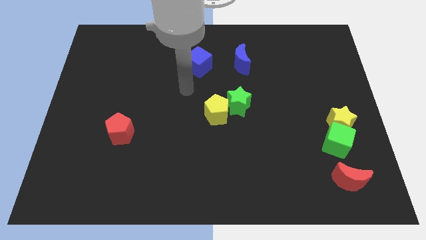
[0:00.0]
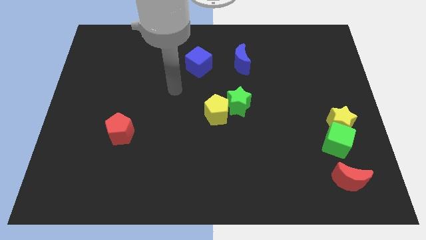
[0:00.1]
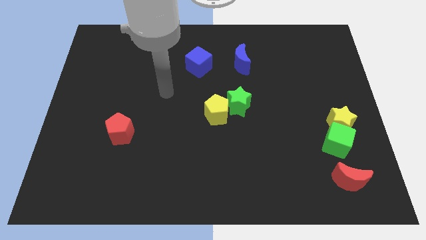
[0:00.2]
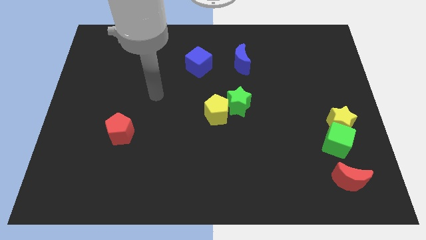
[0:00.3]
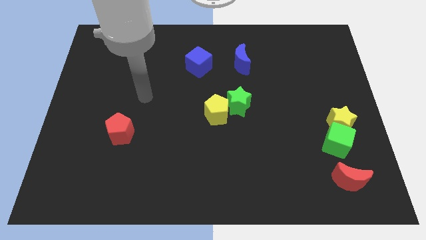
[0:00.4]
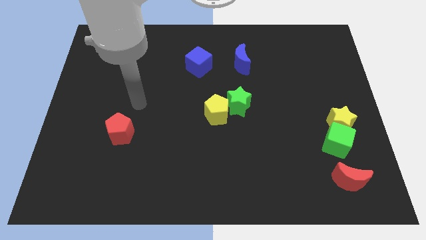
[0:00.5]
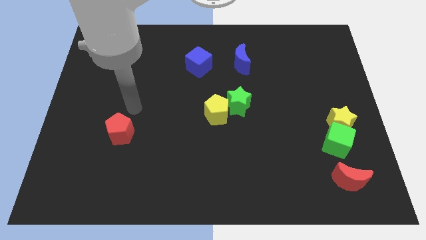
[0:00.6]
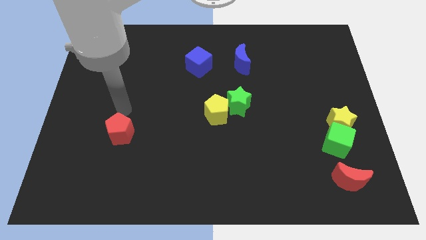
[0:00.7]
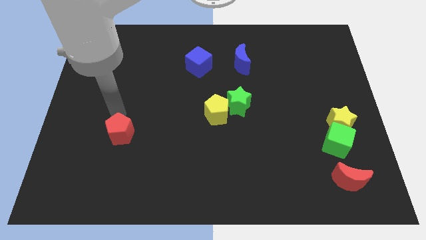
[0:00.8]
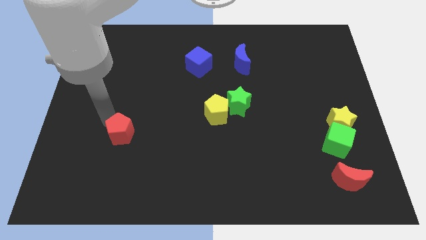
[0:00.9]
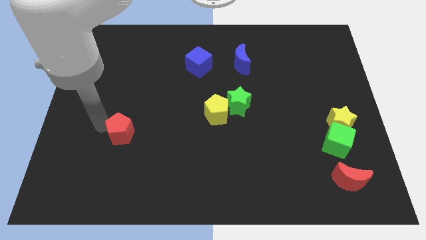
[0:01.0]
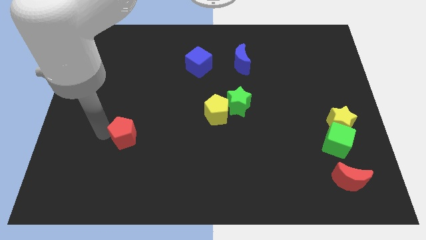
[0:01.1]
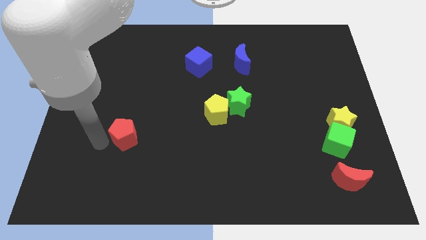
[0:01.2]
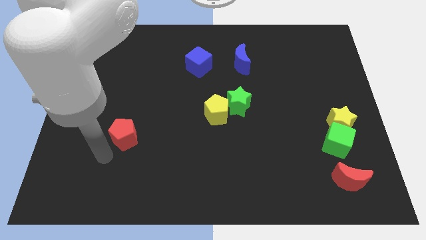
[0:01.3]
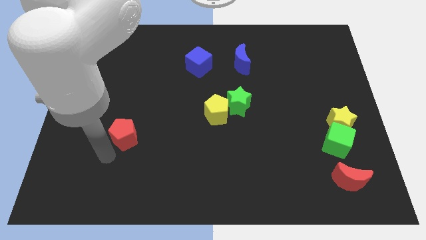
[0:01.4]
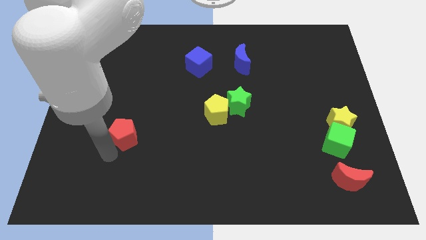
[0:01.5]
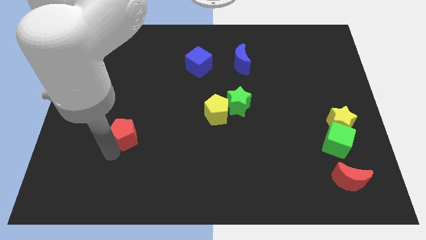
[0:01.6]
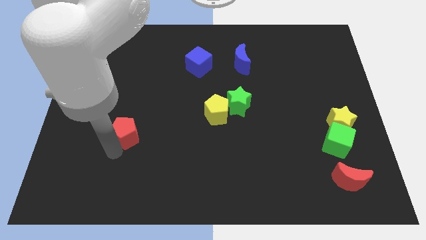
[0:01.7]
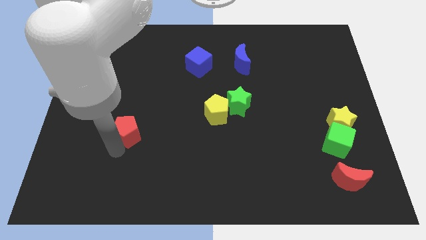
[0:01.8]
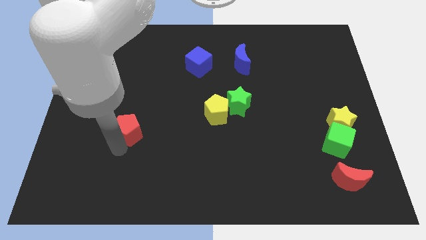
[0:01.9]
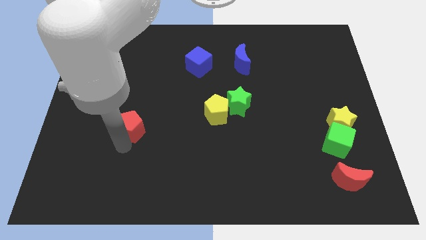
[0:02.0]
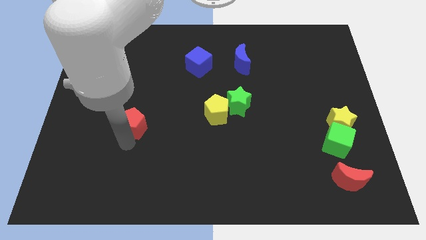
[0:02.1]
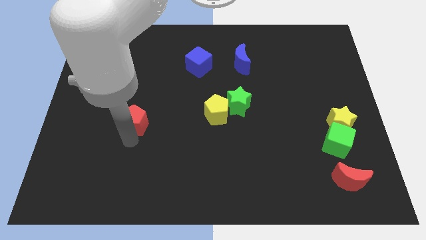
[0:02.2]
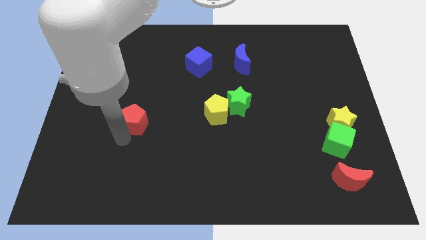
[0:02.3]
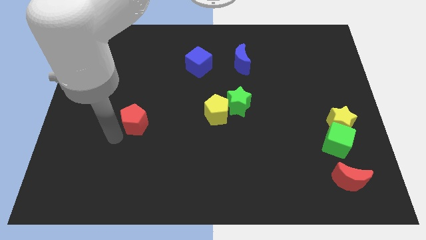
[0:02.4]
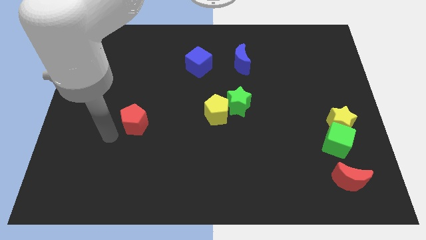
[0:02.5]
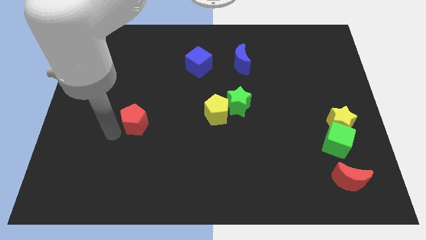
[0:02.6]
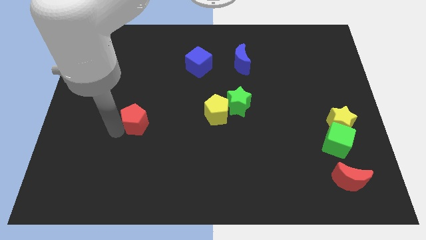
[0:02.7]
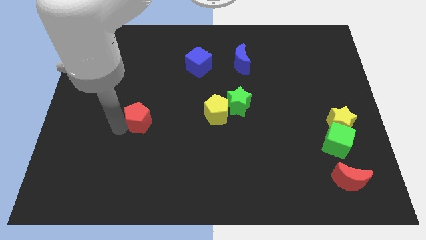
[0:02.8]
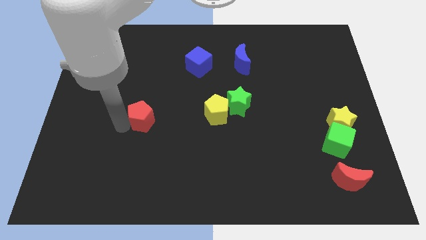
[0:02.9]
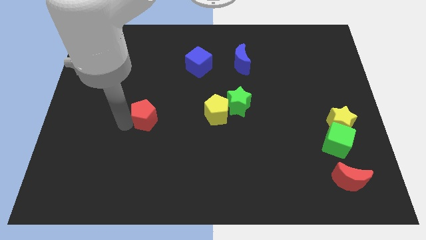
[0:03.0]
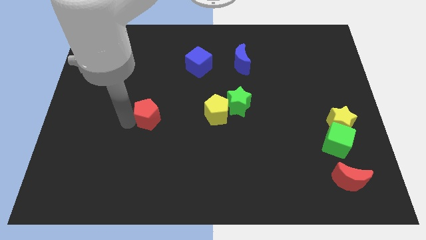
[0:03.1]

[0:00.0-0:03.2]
push the red pentagon upwards and right diagonally somewhat

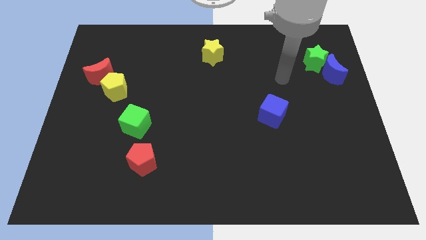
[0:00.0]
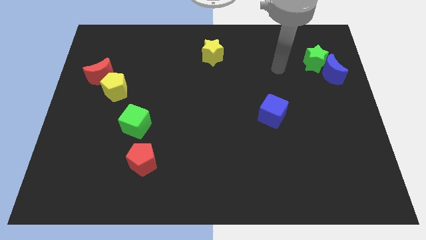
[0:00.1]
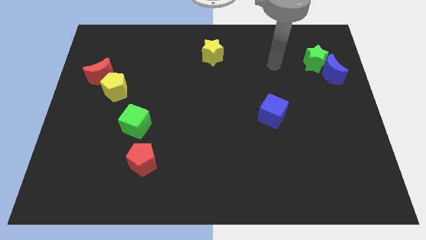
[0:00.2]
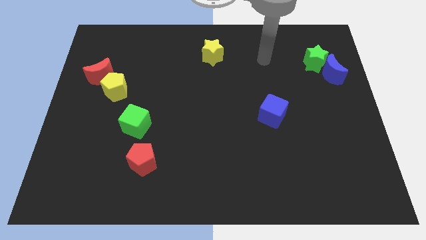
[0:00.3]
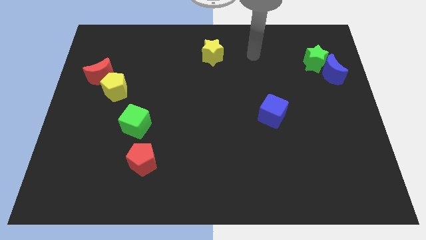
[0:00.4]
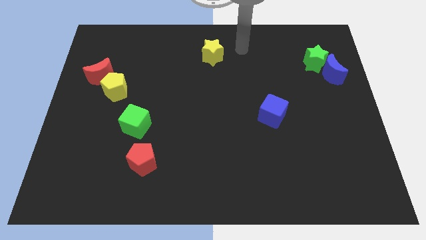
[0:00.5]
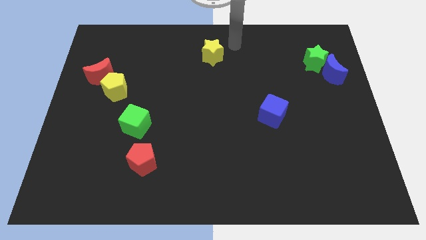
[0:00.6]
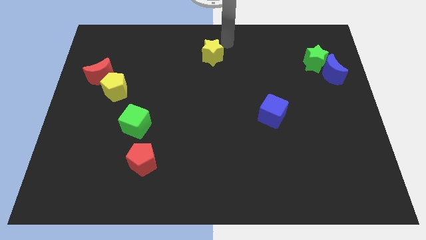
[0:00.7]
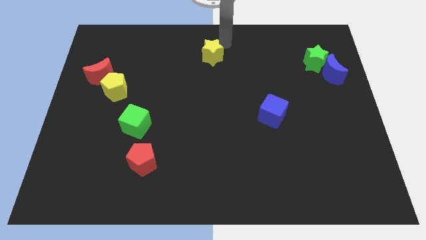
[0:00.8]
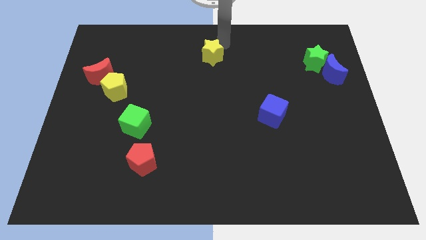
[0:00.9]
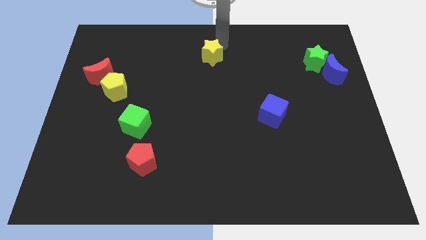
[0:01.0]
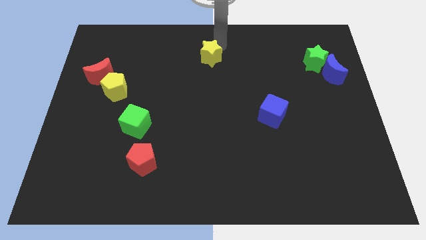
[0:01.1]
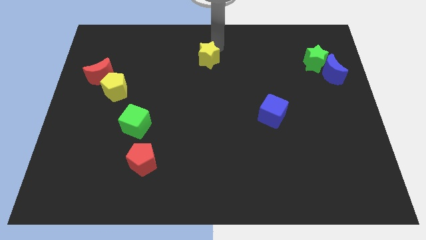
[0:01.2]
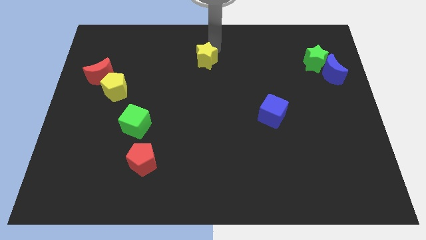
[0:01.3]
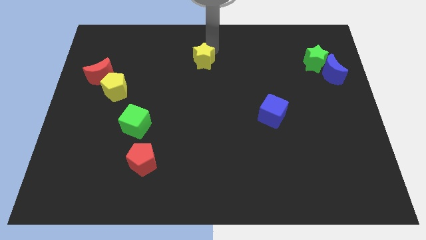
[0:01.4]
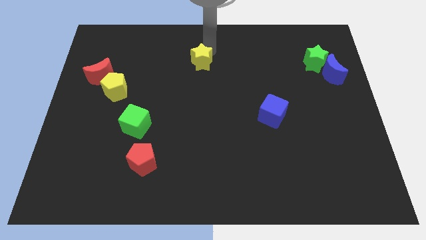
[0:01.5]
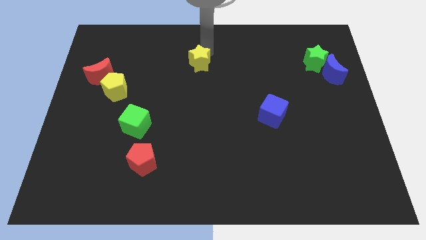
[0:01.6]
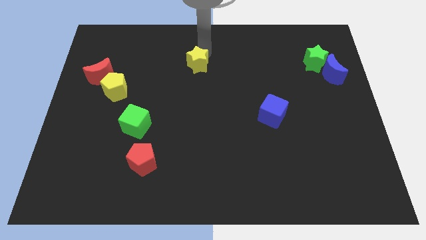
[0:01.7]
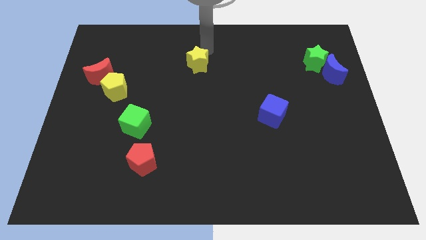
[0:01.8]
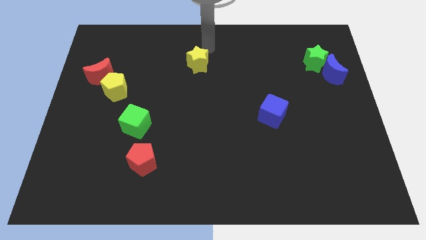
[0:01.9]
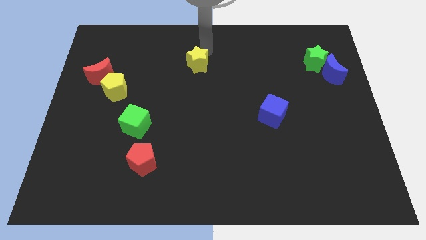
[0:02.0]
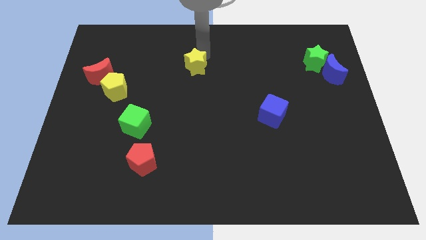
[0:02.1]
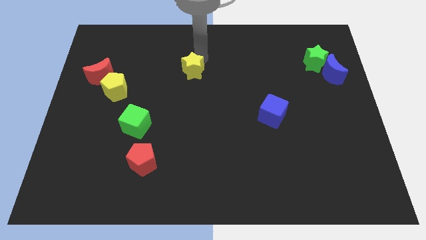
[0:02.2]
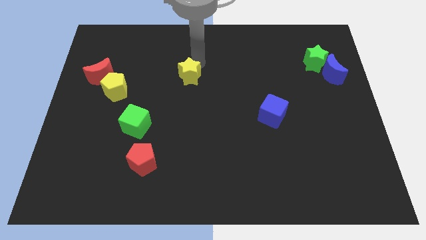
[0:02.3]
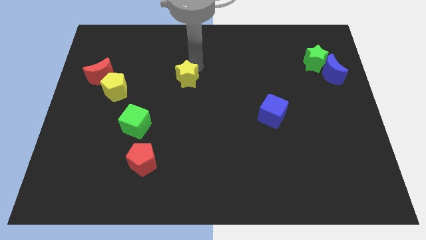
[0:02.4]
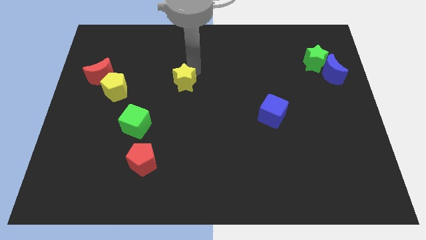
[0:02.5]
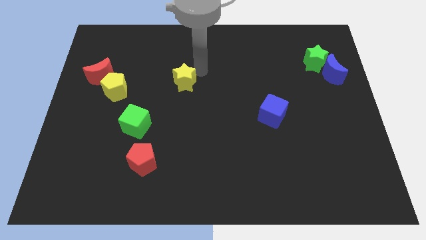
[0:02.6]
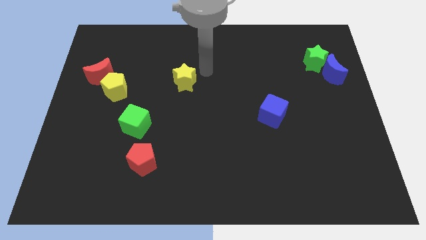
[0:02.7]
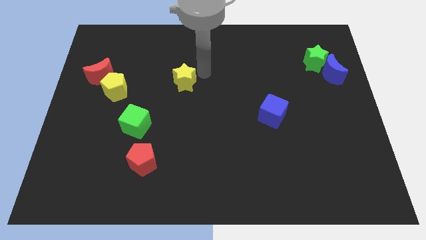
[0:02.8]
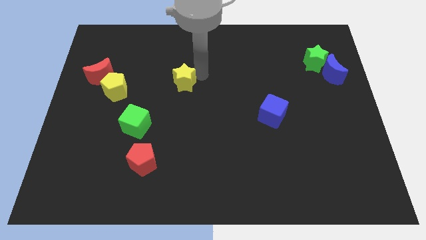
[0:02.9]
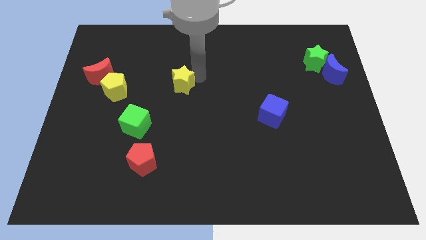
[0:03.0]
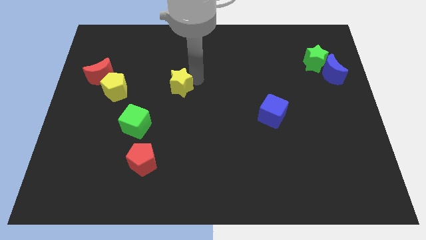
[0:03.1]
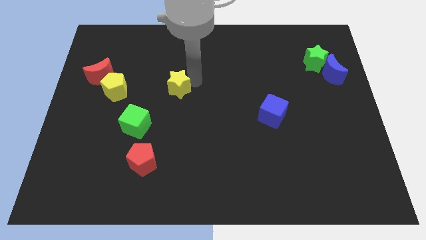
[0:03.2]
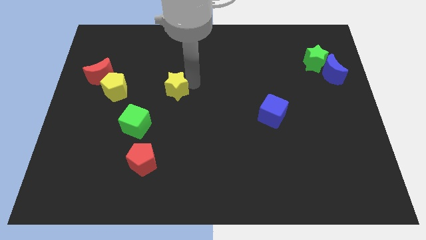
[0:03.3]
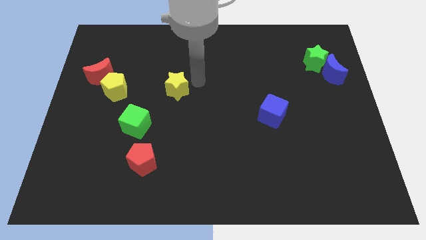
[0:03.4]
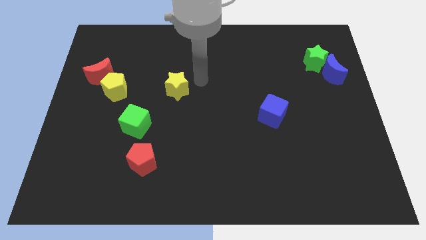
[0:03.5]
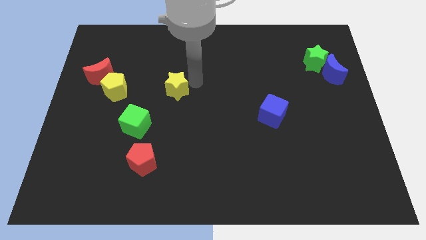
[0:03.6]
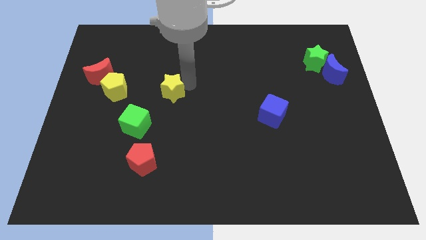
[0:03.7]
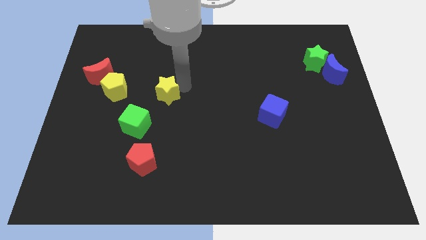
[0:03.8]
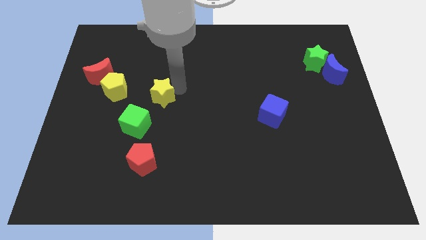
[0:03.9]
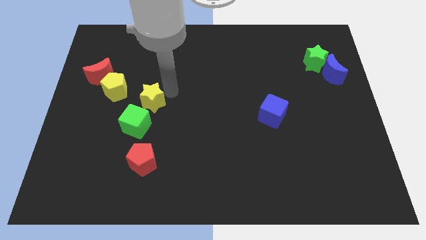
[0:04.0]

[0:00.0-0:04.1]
slide the yellow star down and to the left diagonally

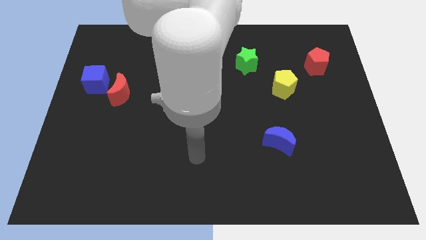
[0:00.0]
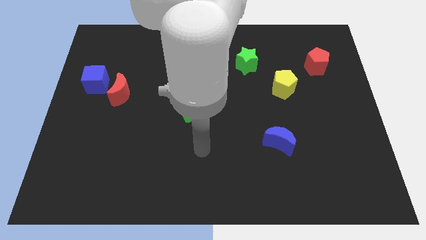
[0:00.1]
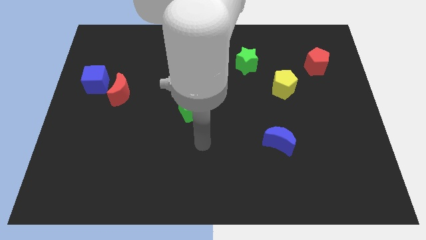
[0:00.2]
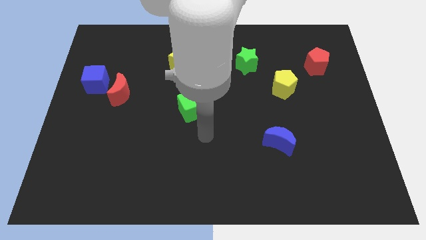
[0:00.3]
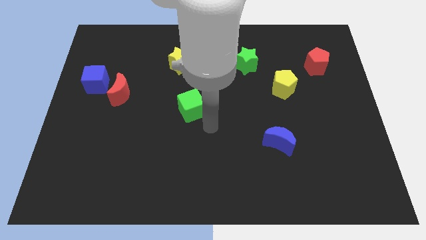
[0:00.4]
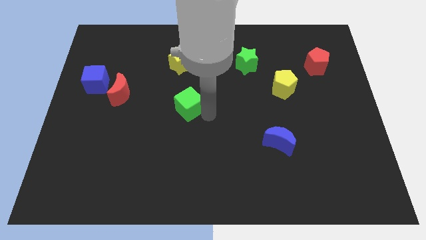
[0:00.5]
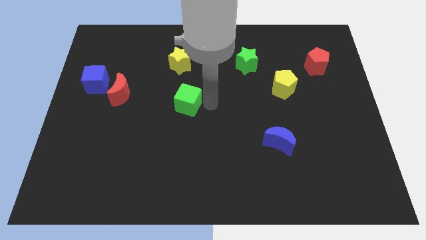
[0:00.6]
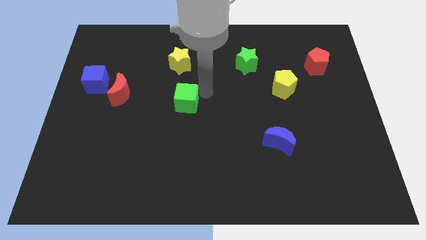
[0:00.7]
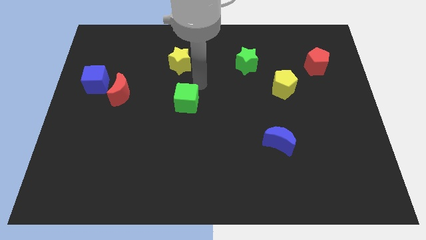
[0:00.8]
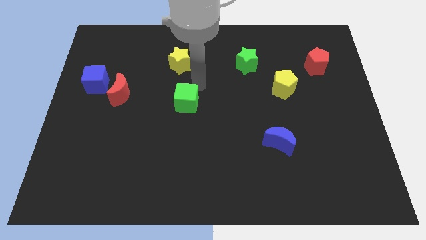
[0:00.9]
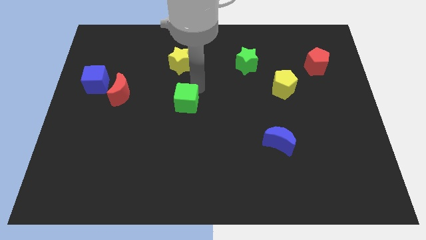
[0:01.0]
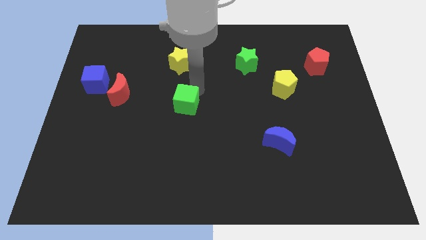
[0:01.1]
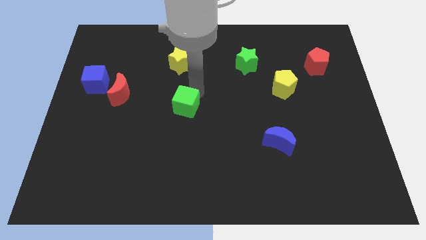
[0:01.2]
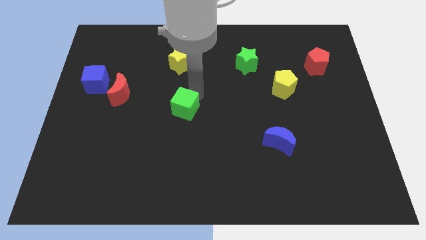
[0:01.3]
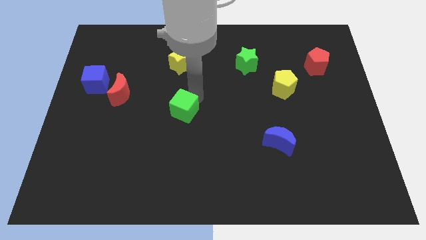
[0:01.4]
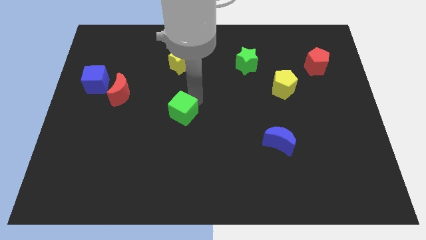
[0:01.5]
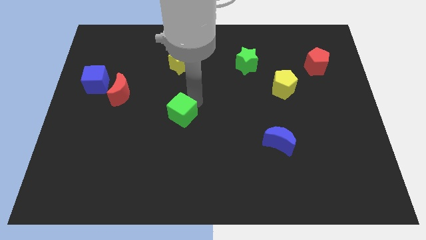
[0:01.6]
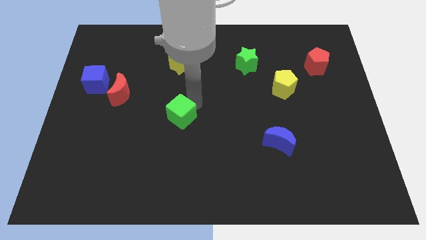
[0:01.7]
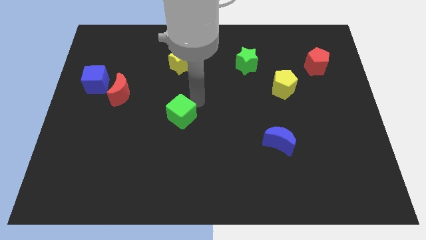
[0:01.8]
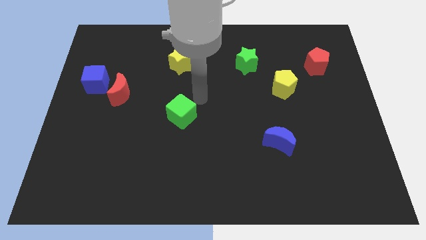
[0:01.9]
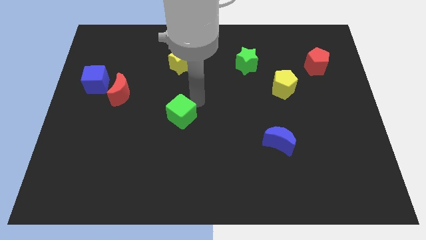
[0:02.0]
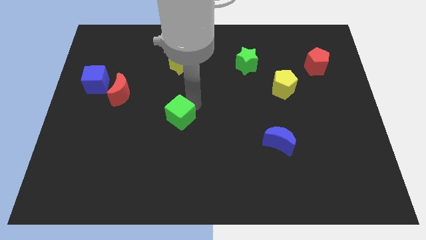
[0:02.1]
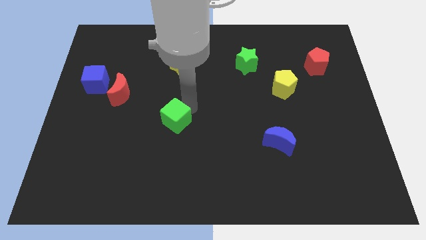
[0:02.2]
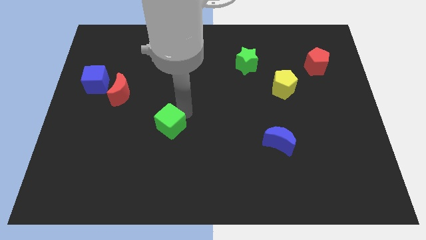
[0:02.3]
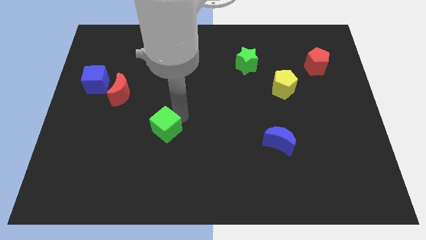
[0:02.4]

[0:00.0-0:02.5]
slide the green cube down and to the left diagonally somewhat
